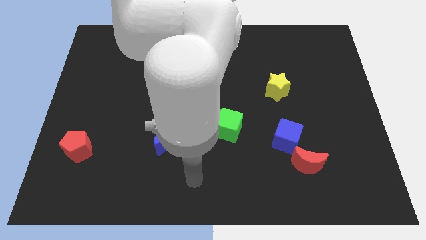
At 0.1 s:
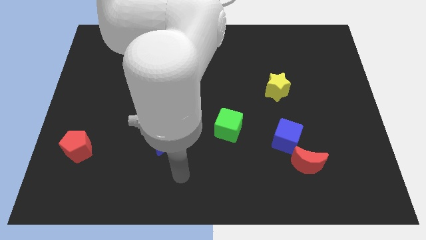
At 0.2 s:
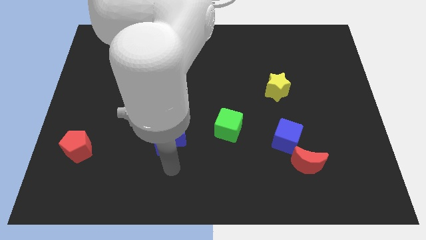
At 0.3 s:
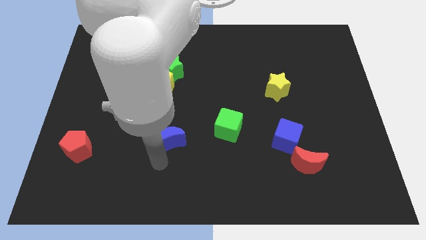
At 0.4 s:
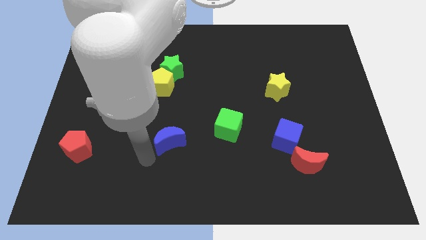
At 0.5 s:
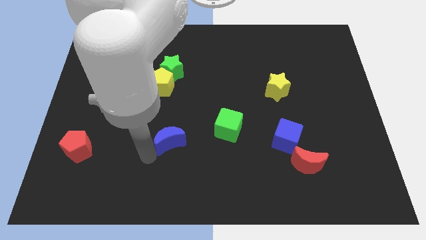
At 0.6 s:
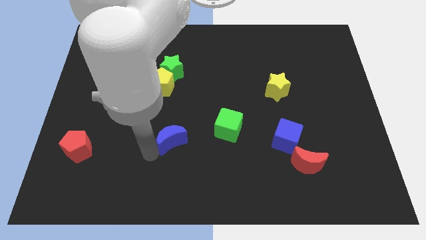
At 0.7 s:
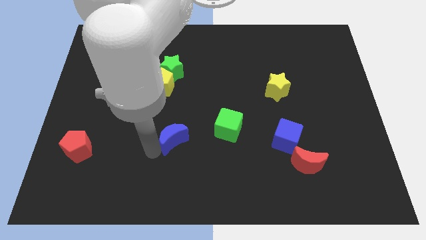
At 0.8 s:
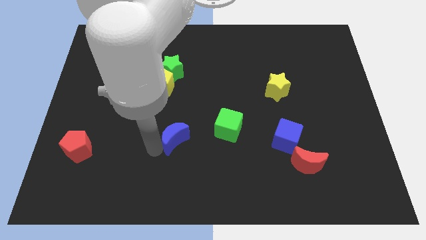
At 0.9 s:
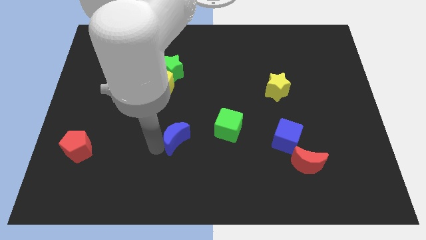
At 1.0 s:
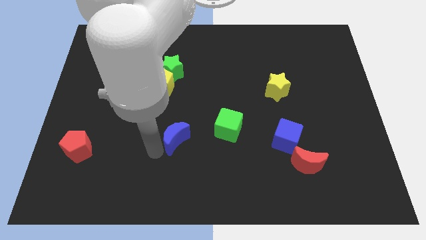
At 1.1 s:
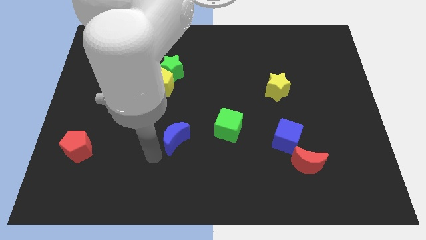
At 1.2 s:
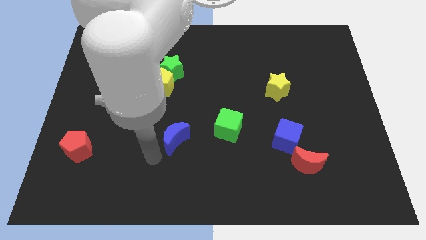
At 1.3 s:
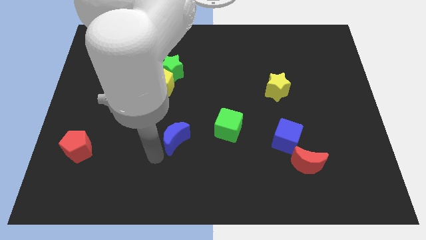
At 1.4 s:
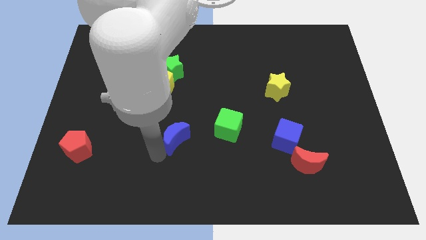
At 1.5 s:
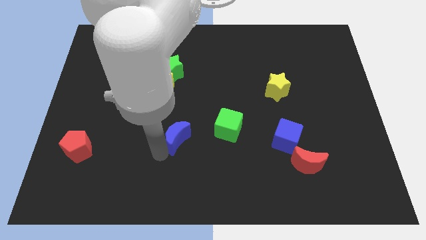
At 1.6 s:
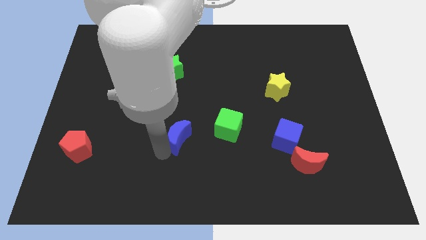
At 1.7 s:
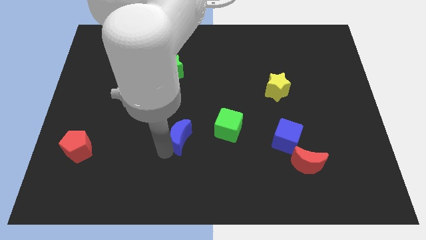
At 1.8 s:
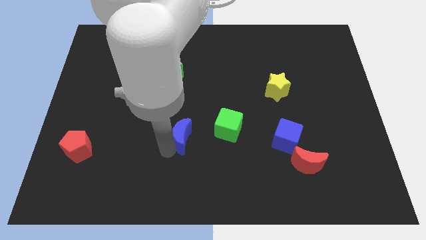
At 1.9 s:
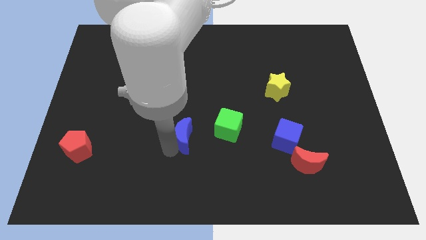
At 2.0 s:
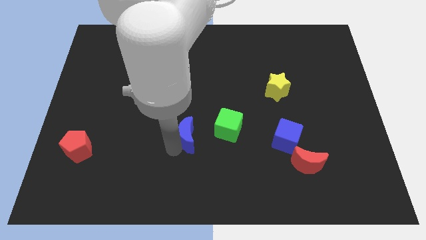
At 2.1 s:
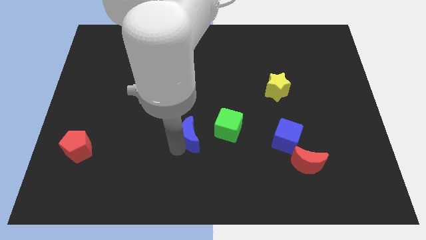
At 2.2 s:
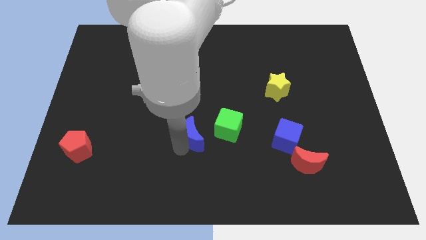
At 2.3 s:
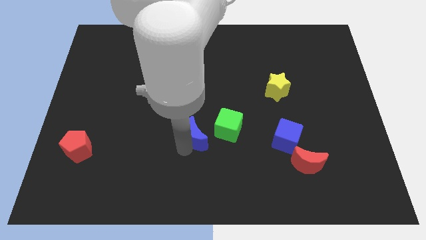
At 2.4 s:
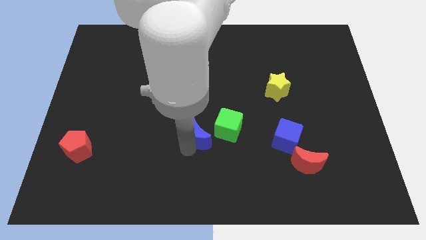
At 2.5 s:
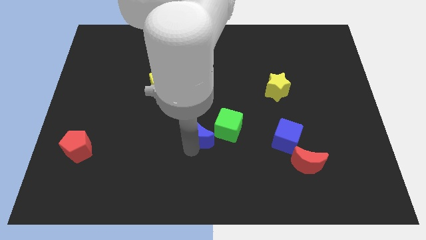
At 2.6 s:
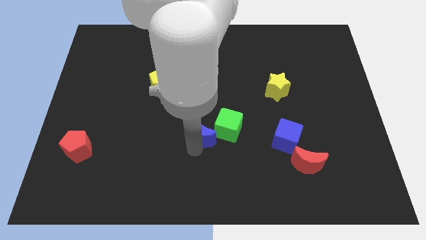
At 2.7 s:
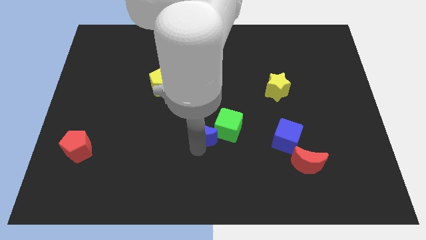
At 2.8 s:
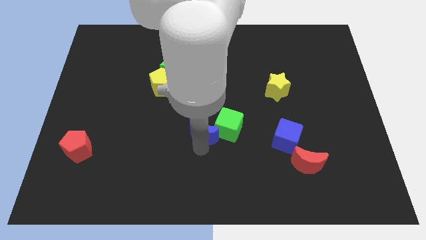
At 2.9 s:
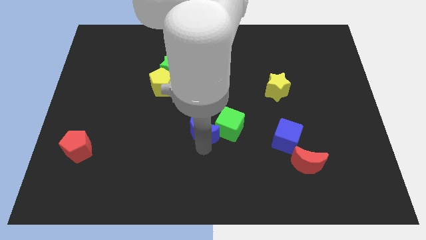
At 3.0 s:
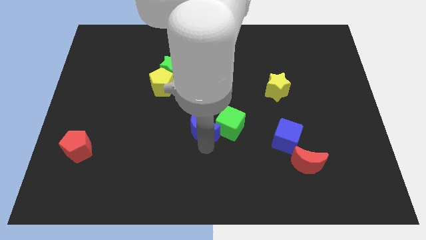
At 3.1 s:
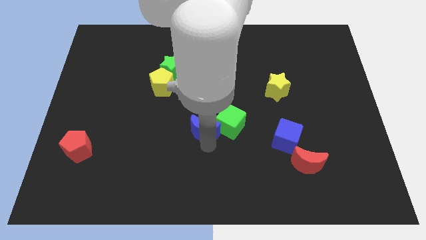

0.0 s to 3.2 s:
slide the blue moon a little bit upwards and right diagonally

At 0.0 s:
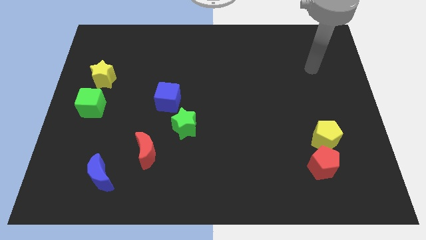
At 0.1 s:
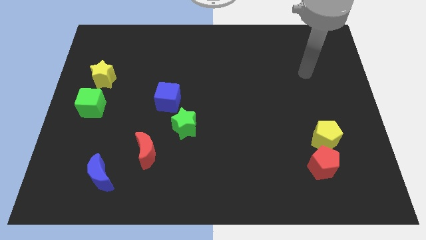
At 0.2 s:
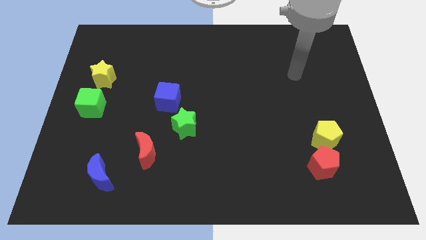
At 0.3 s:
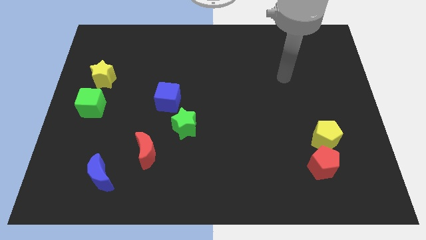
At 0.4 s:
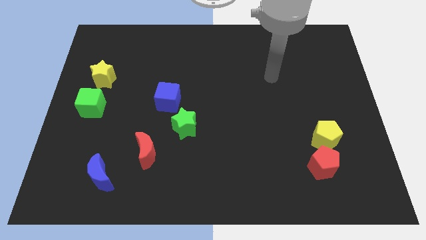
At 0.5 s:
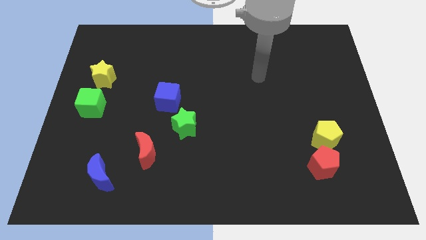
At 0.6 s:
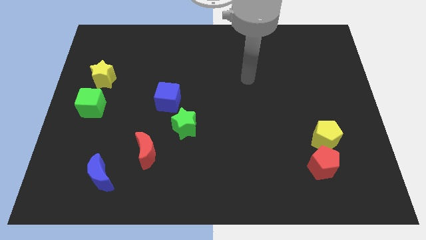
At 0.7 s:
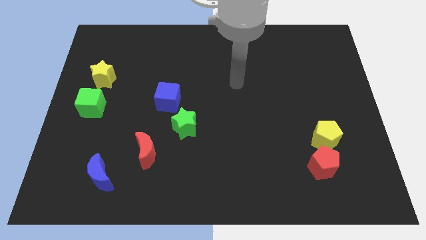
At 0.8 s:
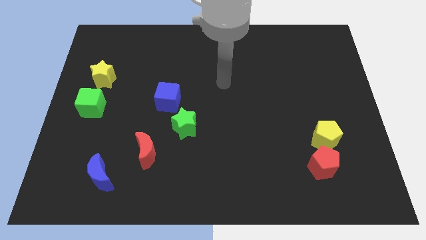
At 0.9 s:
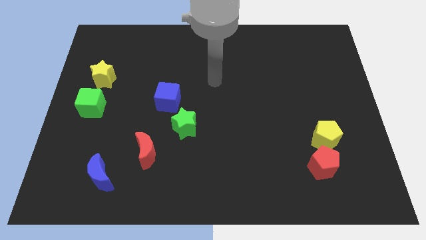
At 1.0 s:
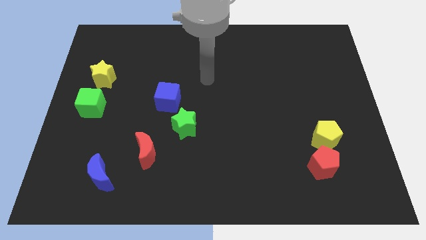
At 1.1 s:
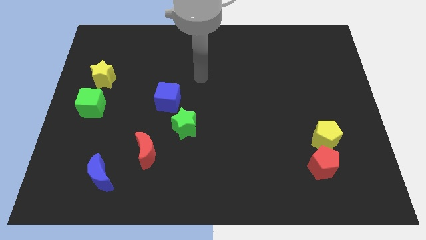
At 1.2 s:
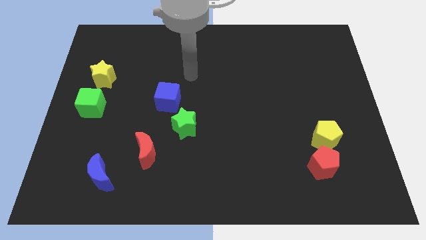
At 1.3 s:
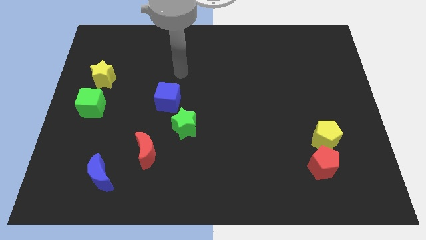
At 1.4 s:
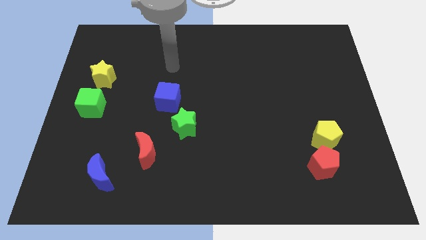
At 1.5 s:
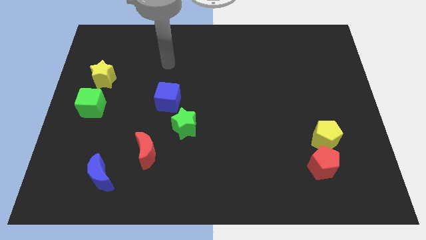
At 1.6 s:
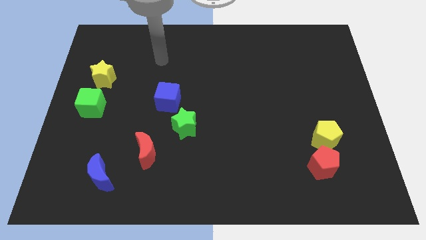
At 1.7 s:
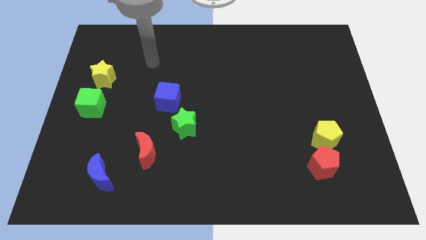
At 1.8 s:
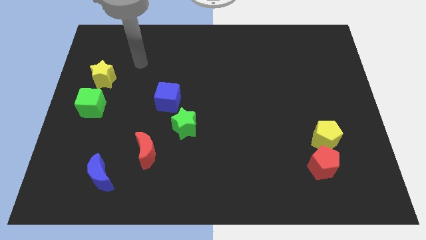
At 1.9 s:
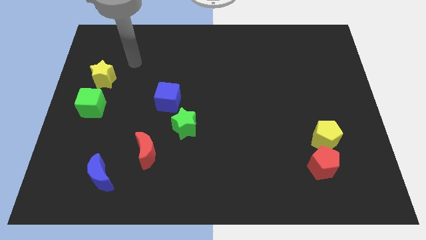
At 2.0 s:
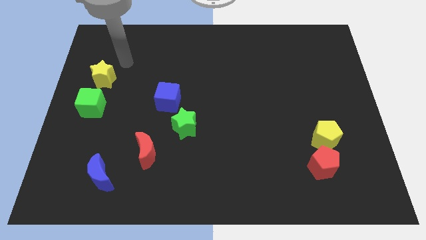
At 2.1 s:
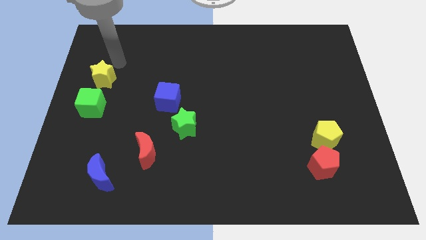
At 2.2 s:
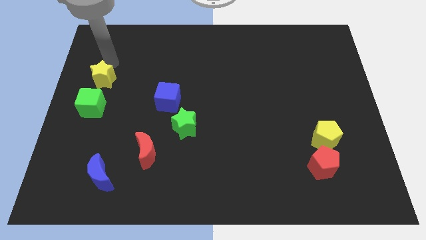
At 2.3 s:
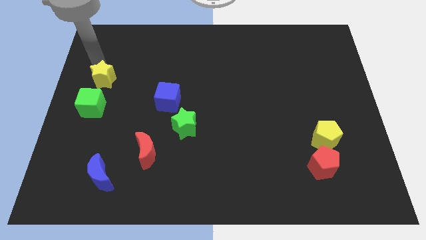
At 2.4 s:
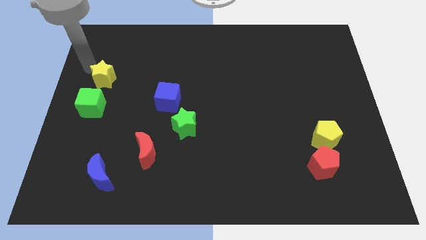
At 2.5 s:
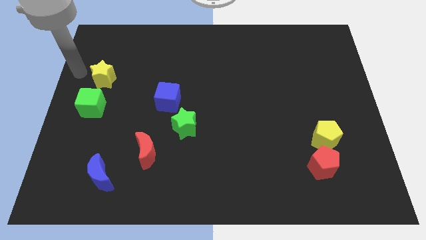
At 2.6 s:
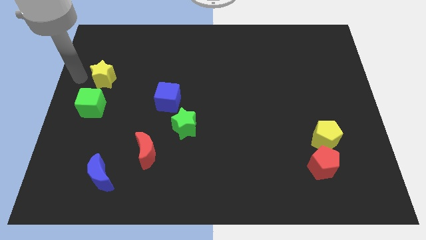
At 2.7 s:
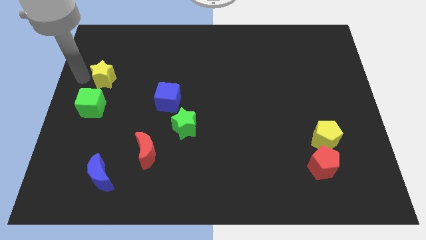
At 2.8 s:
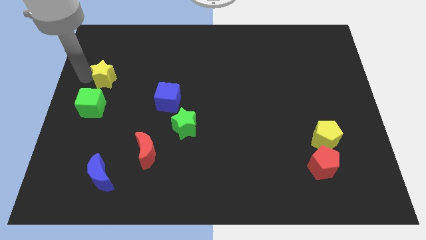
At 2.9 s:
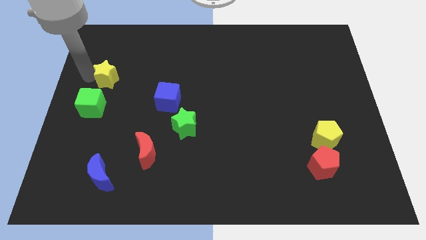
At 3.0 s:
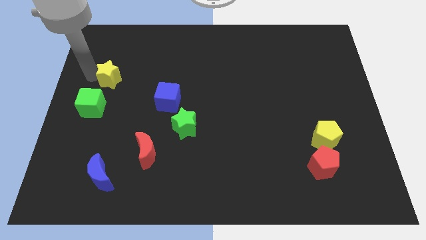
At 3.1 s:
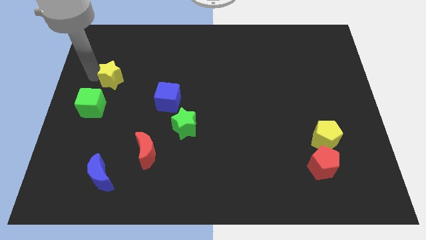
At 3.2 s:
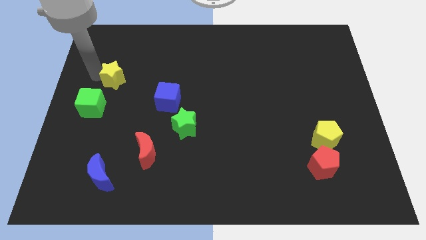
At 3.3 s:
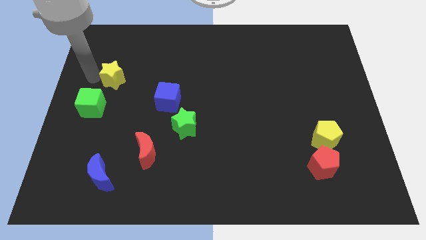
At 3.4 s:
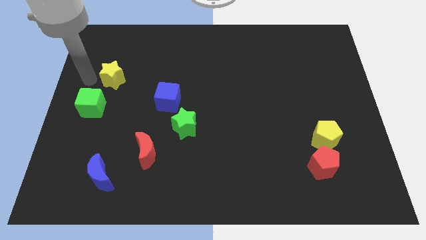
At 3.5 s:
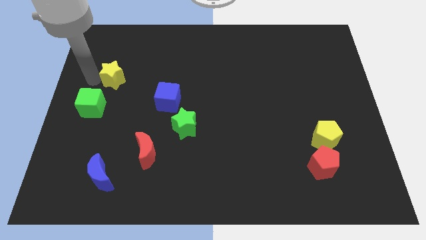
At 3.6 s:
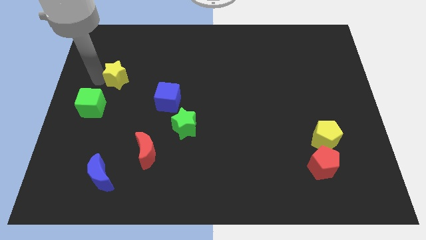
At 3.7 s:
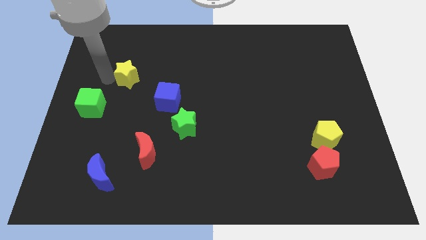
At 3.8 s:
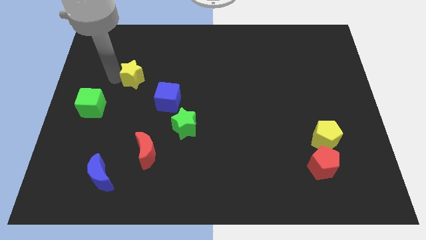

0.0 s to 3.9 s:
slide the yellow star a little right

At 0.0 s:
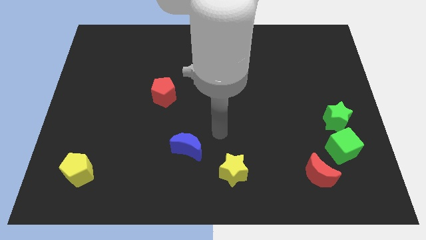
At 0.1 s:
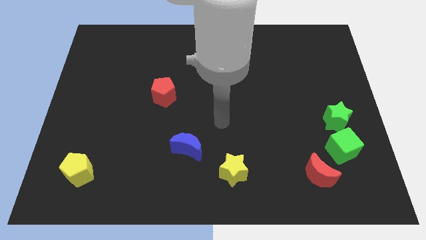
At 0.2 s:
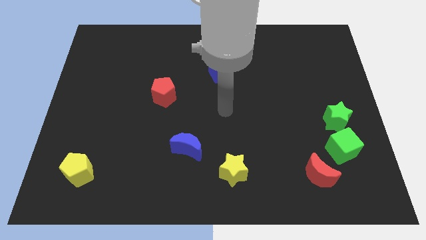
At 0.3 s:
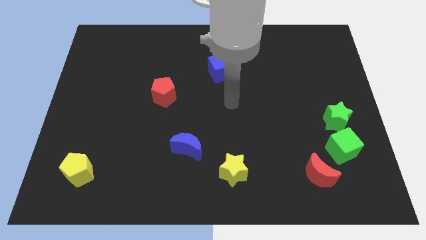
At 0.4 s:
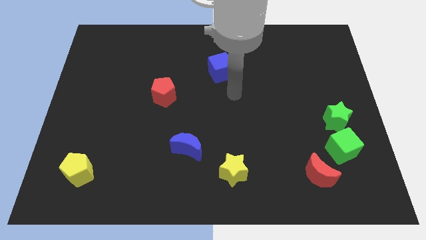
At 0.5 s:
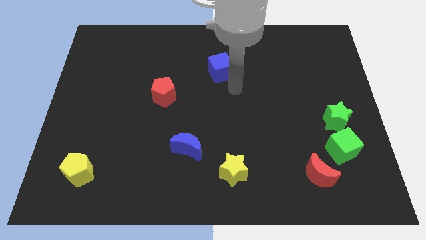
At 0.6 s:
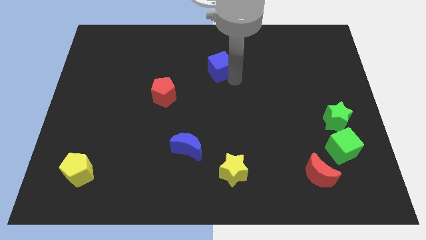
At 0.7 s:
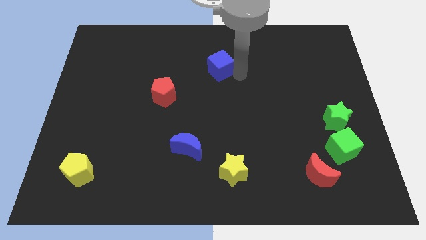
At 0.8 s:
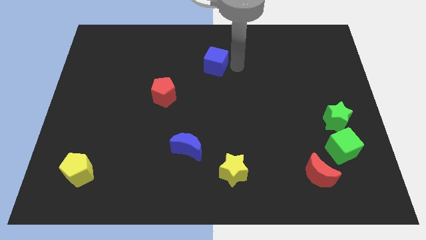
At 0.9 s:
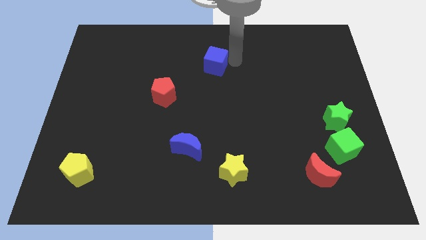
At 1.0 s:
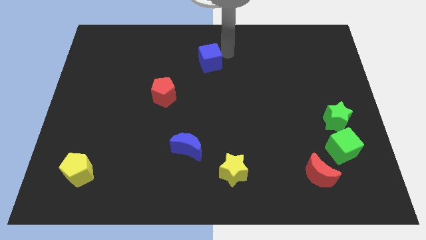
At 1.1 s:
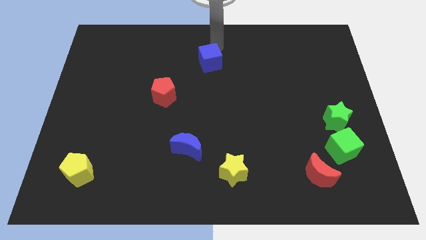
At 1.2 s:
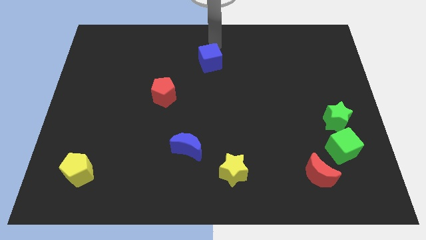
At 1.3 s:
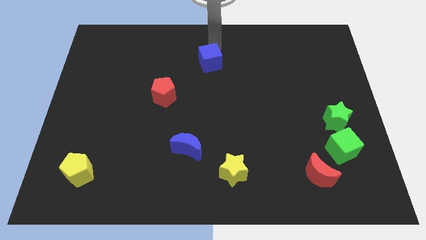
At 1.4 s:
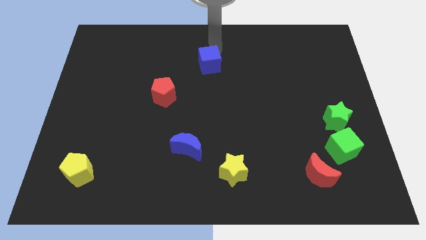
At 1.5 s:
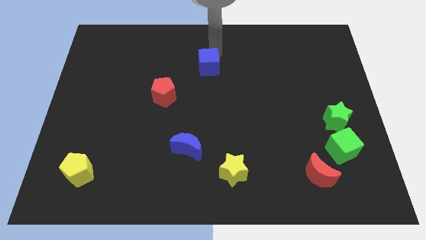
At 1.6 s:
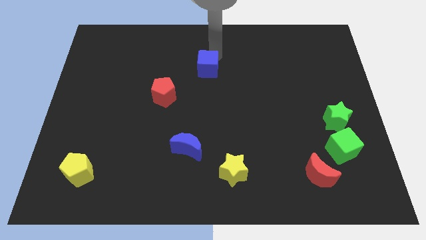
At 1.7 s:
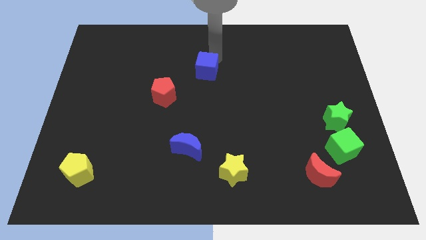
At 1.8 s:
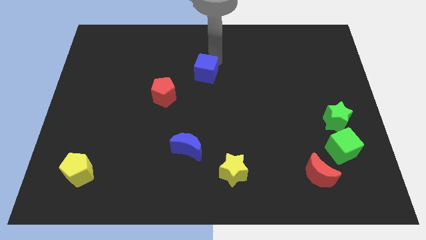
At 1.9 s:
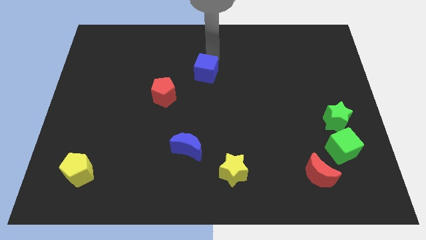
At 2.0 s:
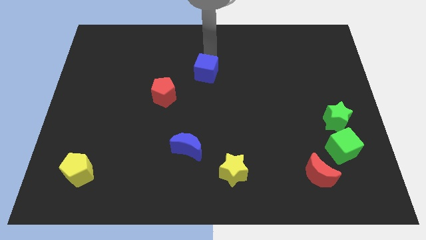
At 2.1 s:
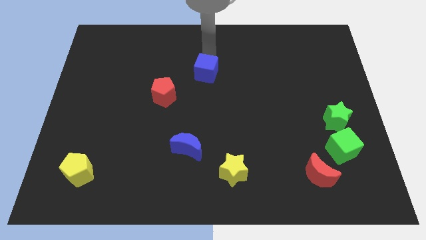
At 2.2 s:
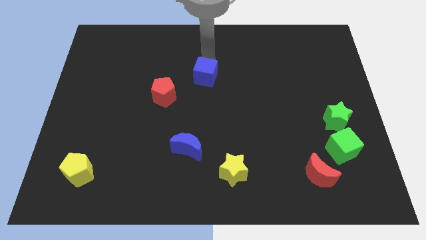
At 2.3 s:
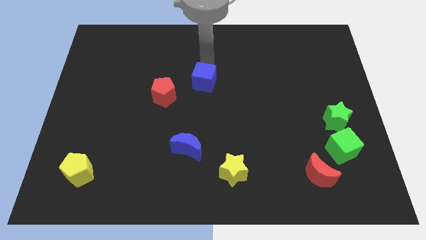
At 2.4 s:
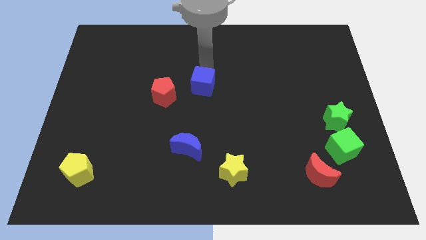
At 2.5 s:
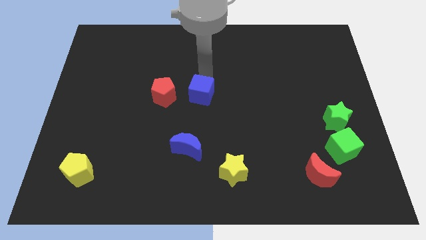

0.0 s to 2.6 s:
move the blue cube a little downwards and to the left
